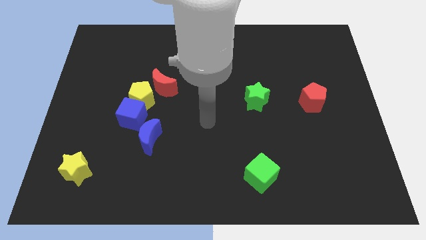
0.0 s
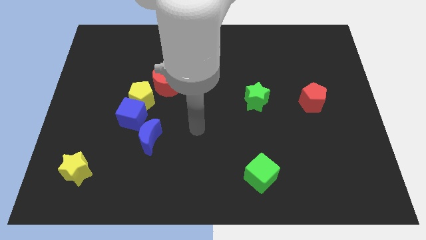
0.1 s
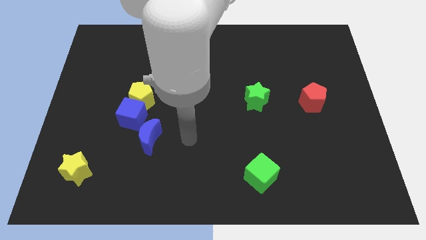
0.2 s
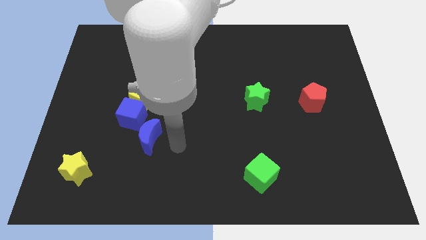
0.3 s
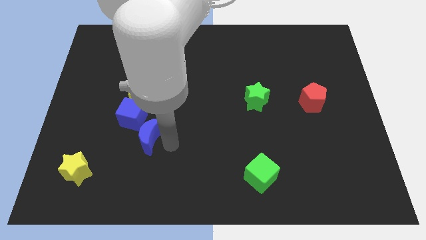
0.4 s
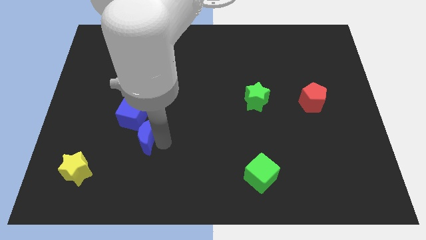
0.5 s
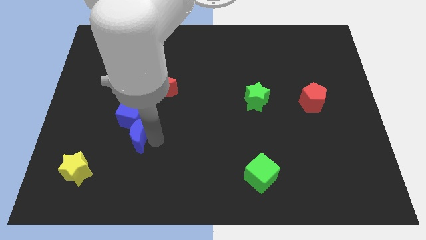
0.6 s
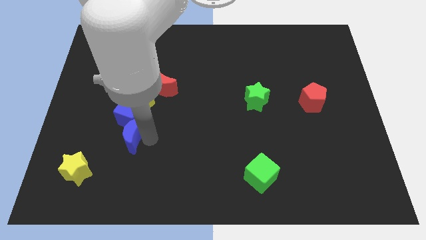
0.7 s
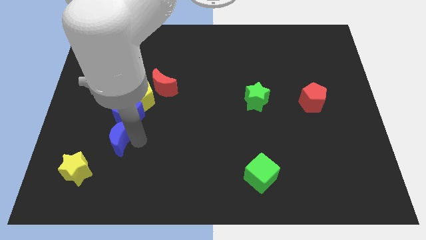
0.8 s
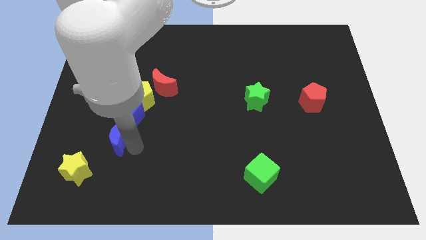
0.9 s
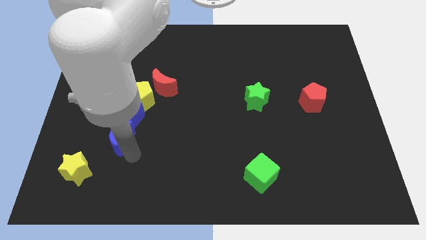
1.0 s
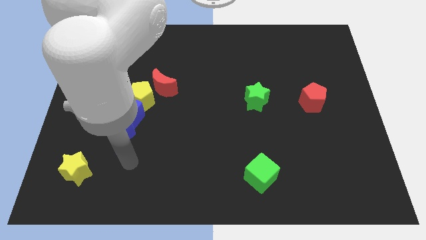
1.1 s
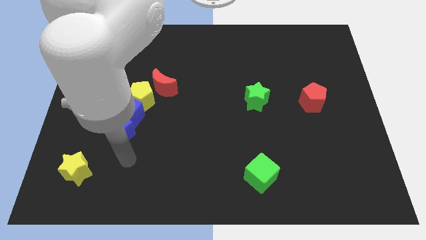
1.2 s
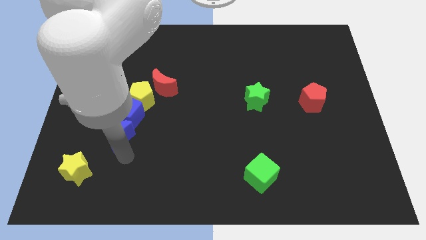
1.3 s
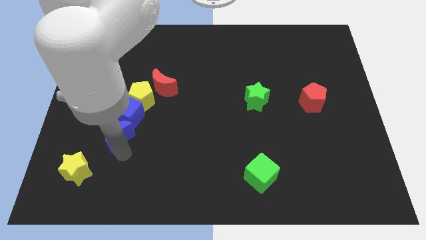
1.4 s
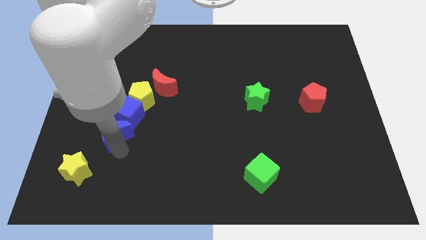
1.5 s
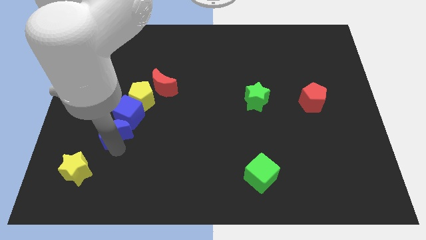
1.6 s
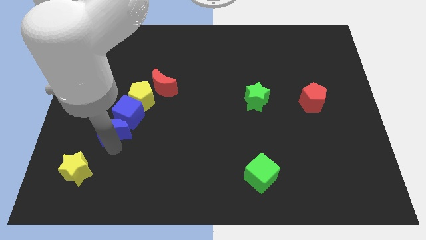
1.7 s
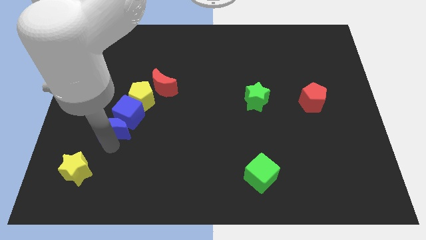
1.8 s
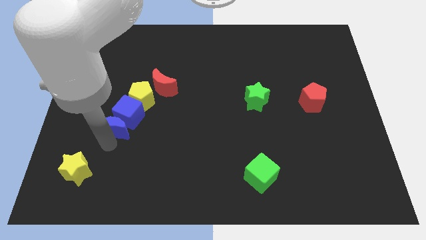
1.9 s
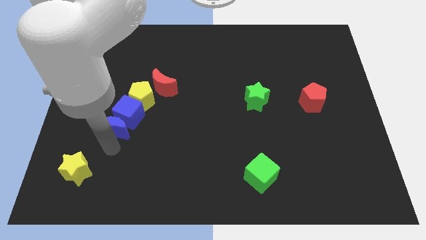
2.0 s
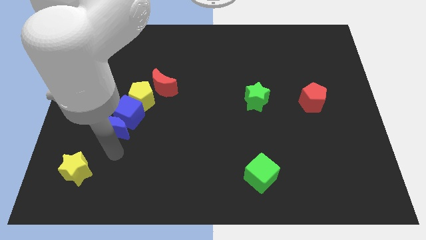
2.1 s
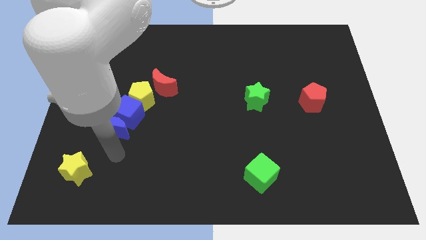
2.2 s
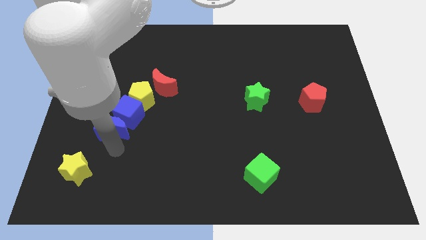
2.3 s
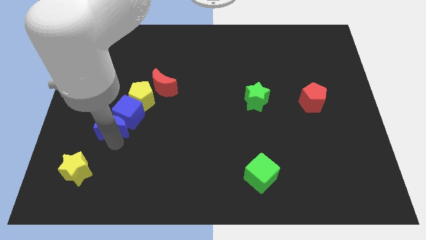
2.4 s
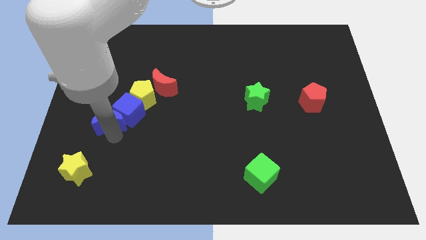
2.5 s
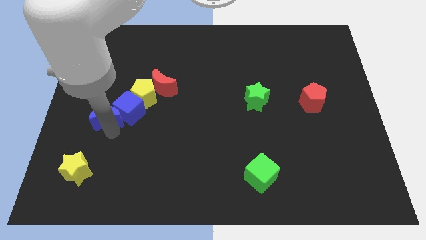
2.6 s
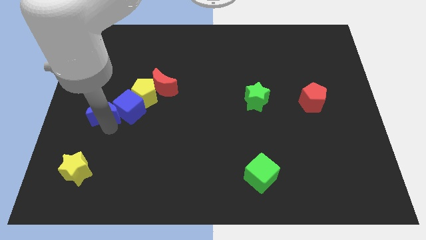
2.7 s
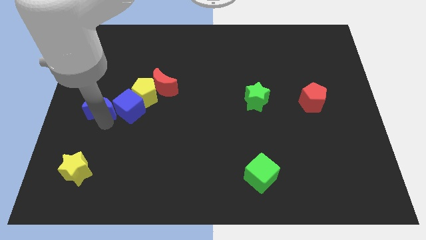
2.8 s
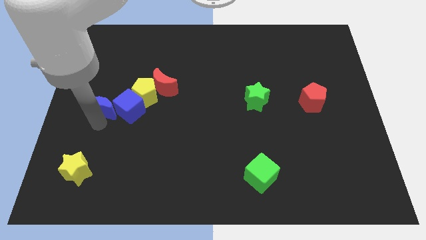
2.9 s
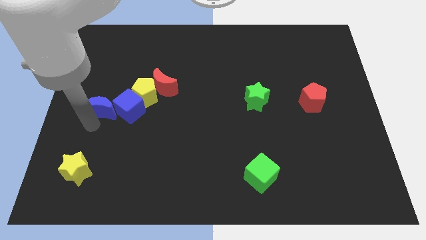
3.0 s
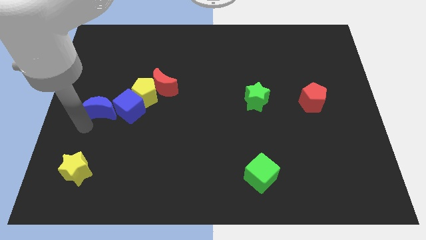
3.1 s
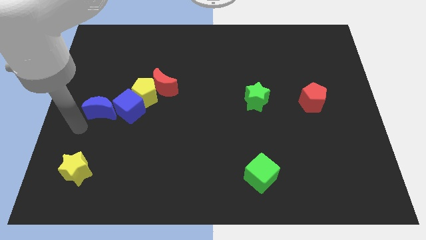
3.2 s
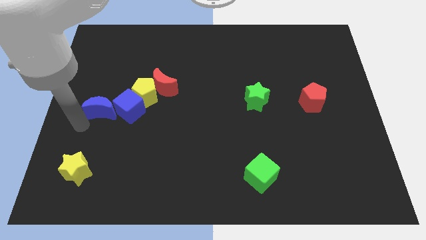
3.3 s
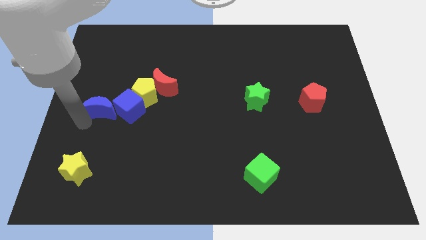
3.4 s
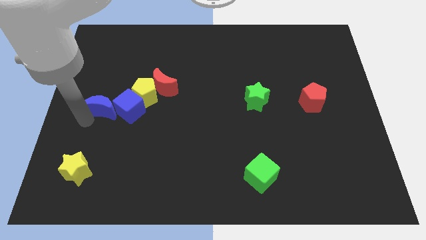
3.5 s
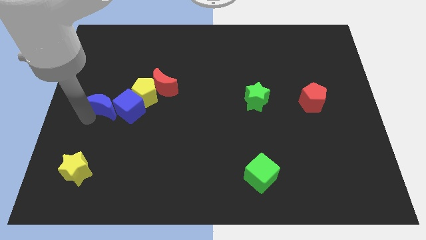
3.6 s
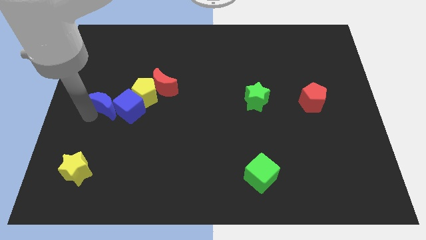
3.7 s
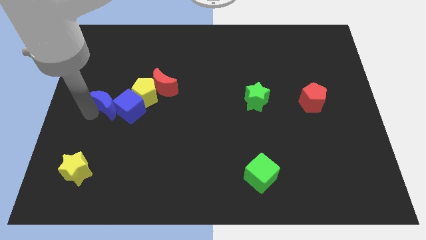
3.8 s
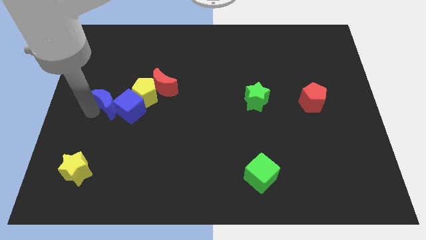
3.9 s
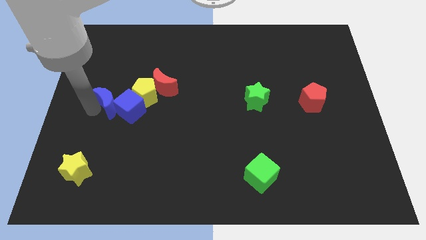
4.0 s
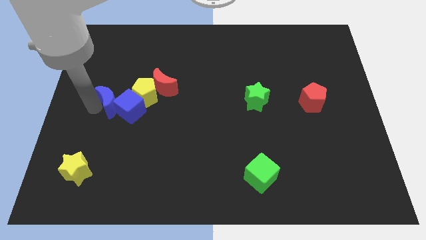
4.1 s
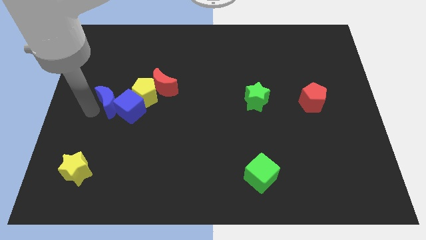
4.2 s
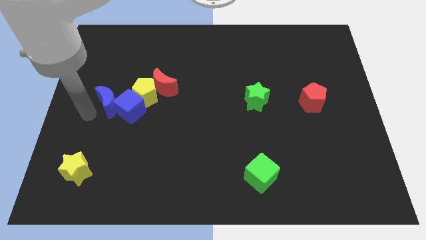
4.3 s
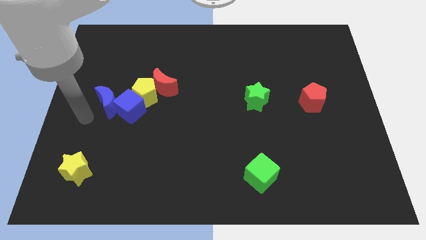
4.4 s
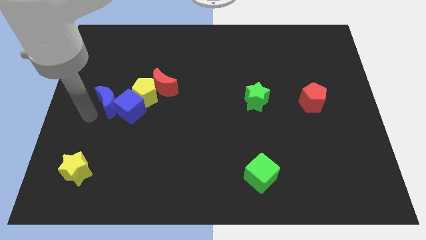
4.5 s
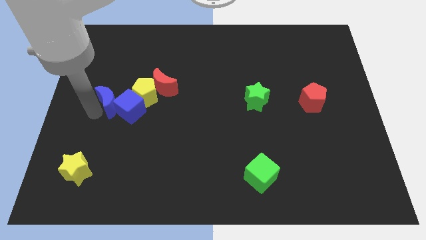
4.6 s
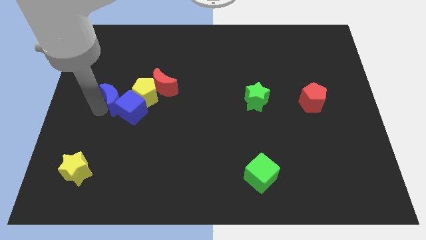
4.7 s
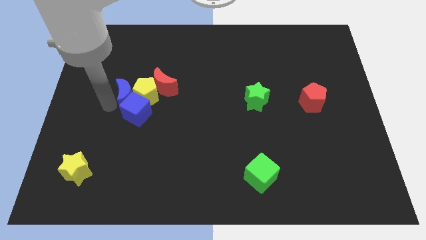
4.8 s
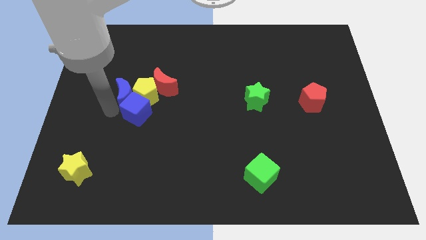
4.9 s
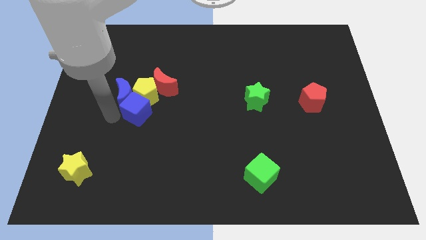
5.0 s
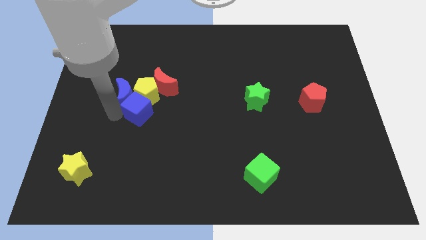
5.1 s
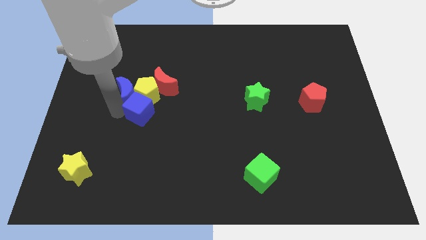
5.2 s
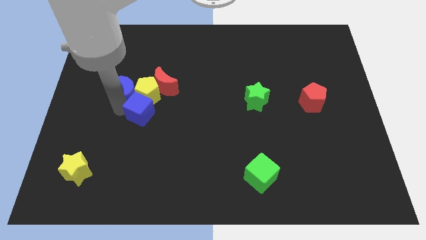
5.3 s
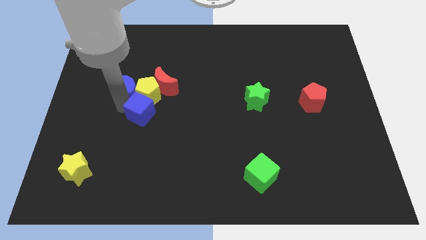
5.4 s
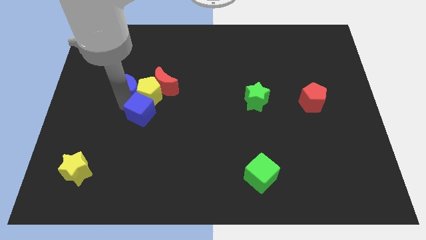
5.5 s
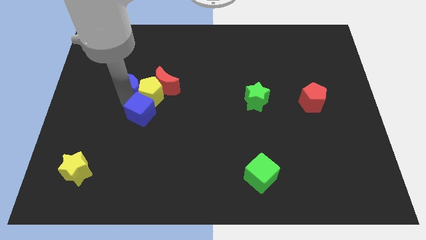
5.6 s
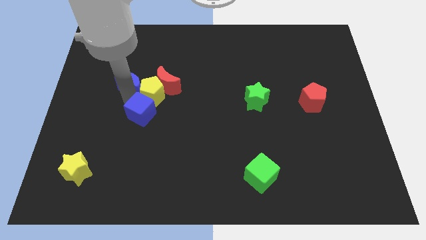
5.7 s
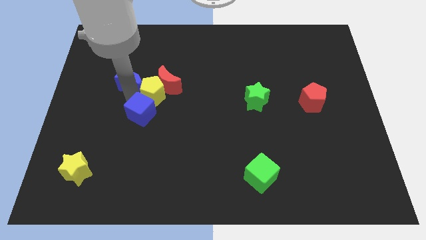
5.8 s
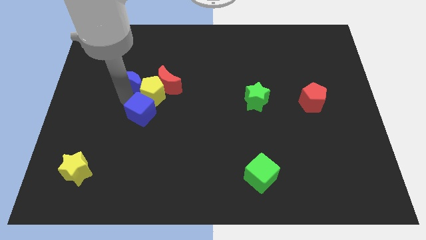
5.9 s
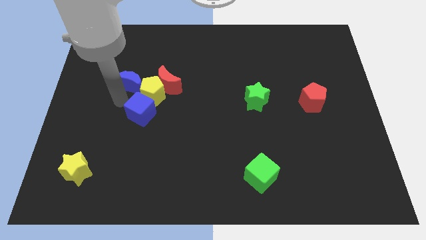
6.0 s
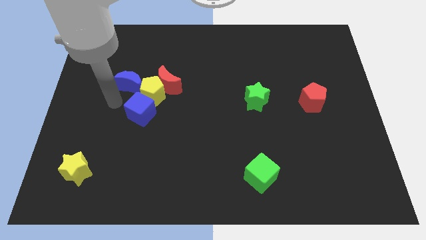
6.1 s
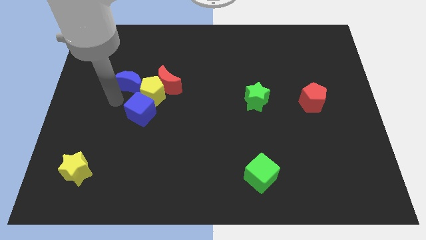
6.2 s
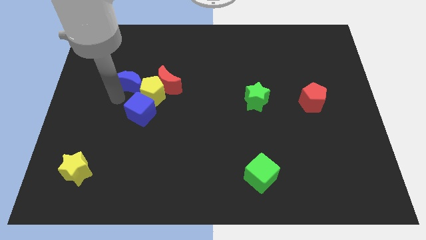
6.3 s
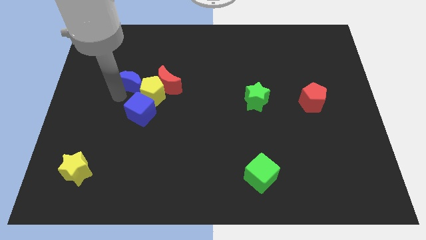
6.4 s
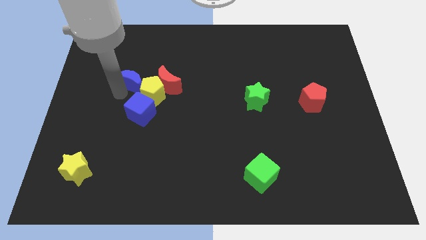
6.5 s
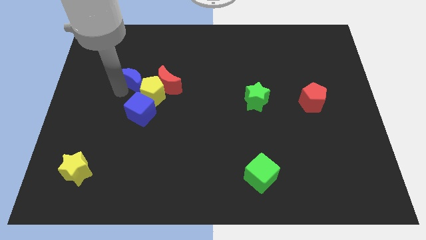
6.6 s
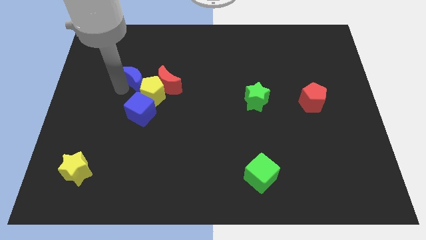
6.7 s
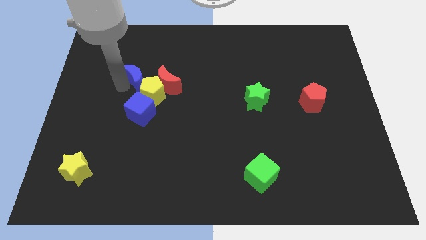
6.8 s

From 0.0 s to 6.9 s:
push the blue moon to the top left side of the red moon
